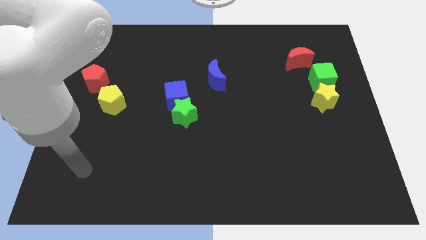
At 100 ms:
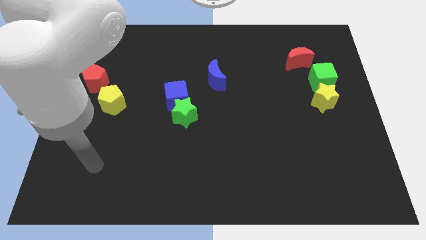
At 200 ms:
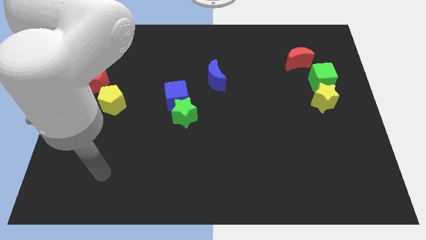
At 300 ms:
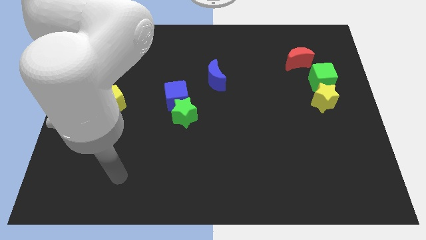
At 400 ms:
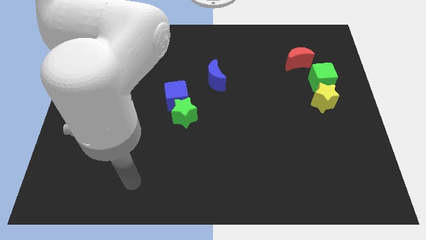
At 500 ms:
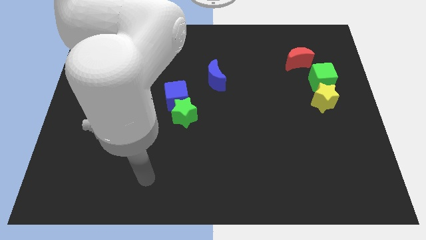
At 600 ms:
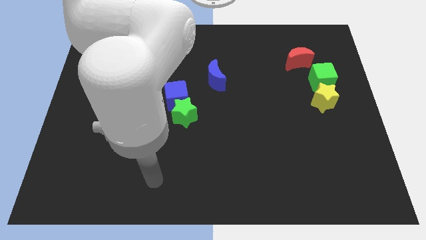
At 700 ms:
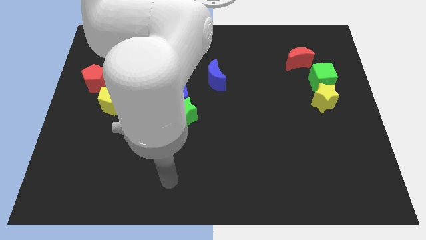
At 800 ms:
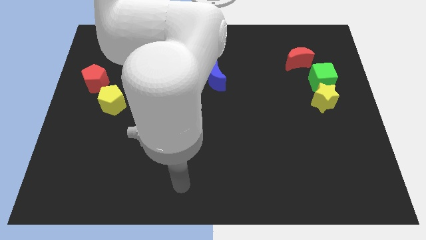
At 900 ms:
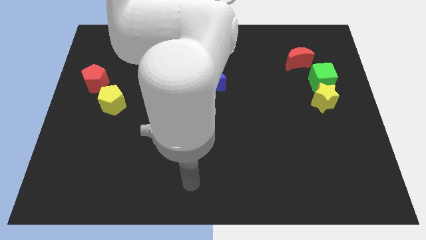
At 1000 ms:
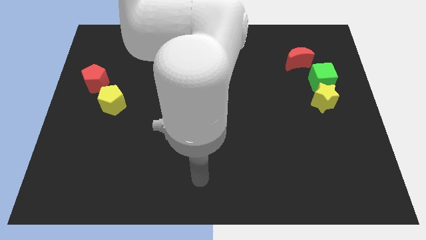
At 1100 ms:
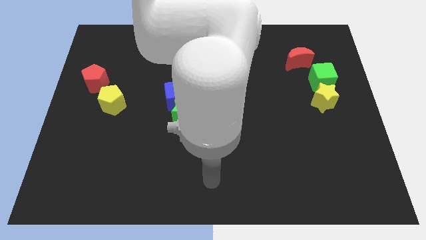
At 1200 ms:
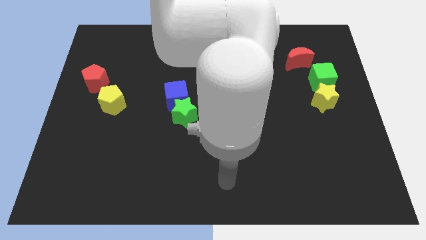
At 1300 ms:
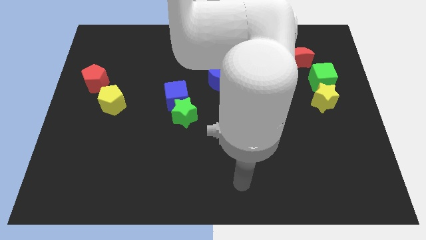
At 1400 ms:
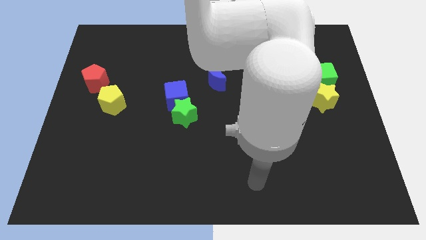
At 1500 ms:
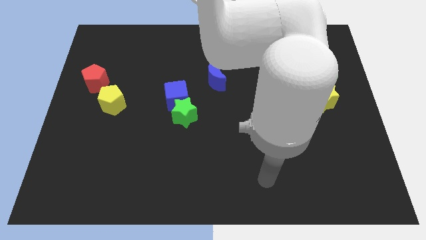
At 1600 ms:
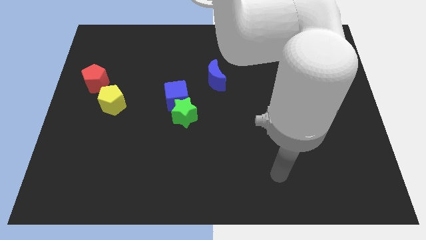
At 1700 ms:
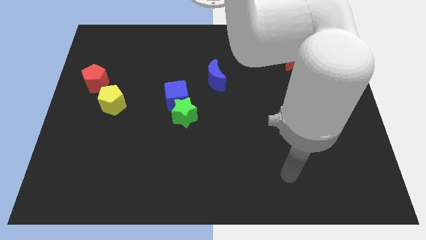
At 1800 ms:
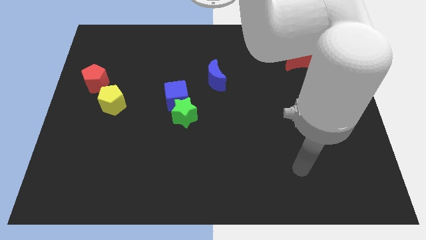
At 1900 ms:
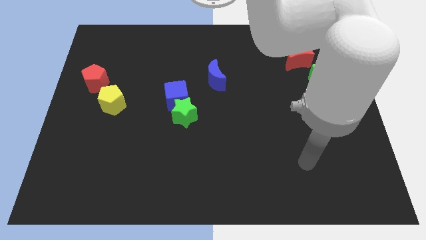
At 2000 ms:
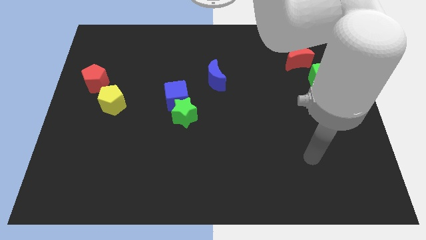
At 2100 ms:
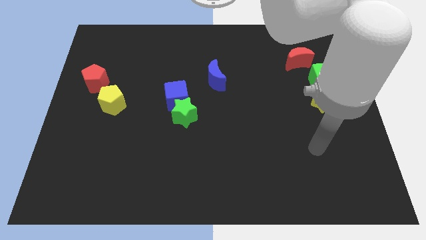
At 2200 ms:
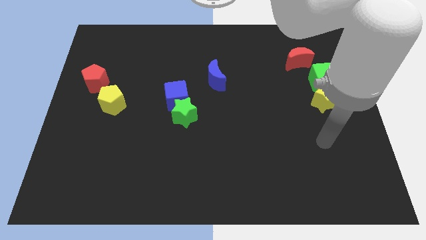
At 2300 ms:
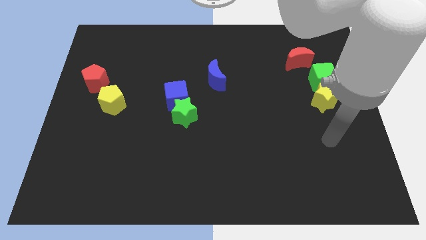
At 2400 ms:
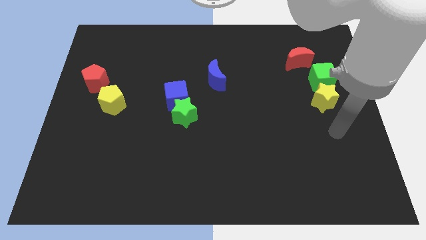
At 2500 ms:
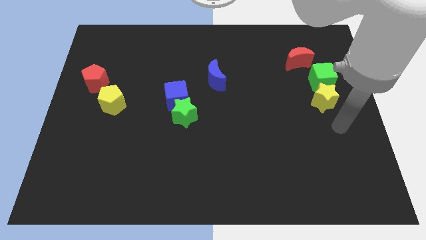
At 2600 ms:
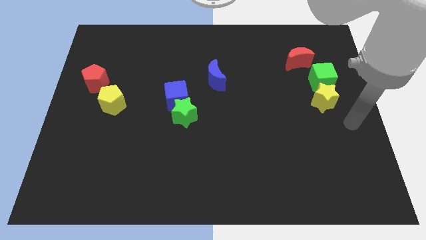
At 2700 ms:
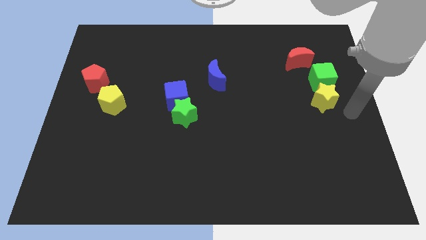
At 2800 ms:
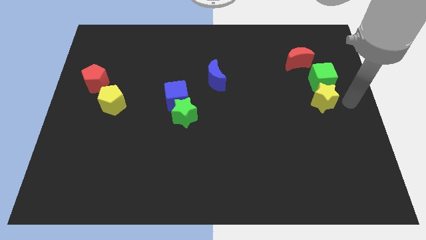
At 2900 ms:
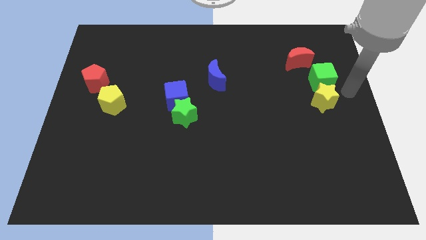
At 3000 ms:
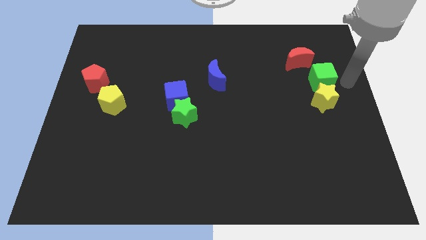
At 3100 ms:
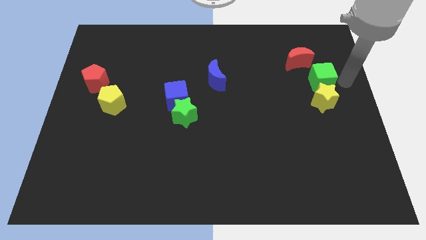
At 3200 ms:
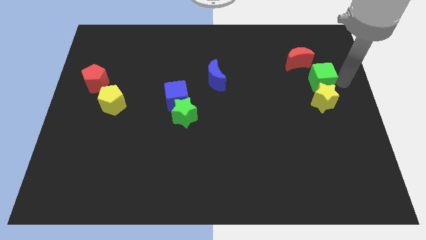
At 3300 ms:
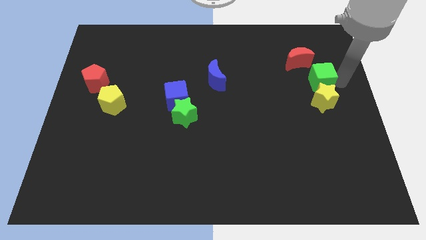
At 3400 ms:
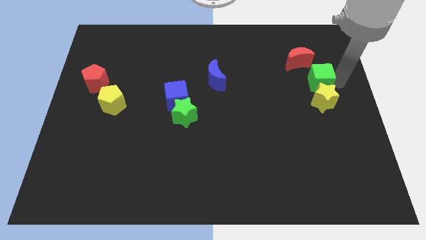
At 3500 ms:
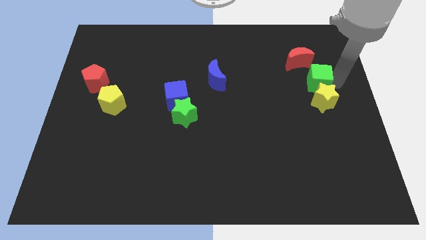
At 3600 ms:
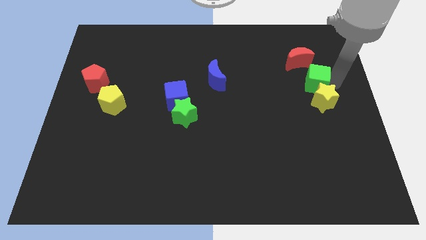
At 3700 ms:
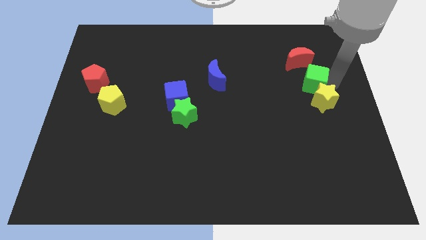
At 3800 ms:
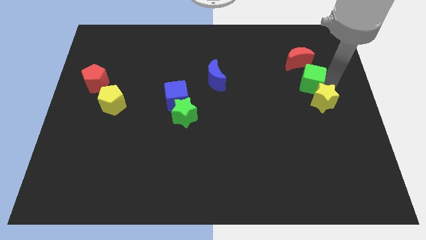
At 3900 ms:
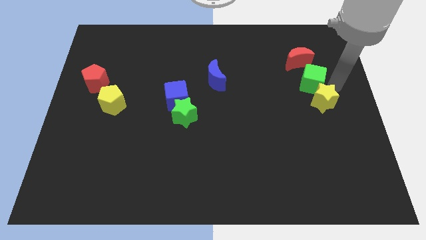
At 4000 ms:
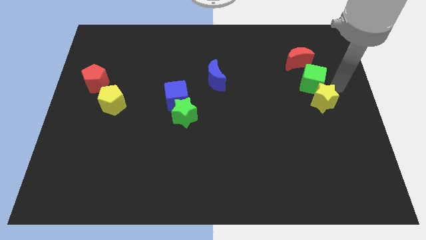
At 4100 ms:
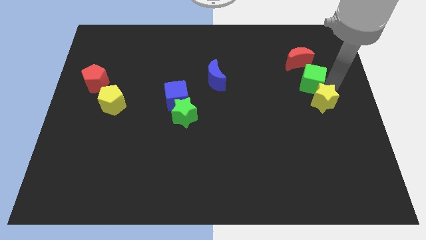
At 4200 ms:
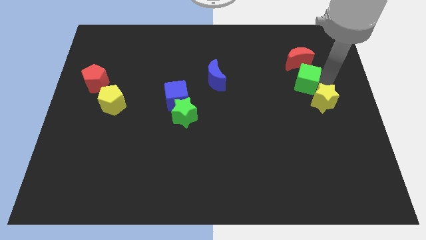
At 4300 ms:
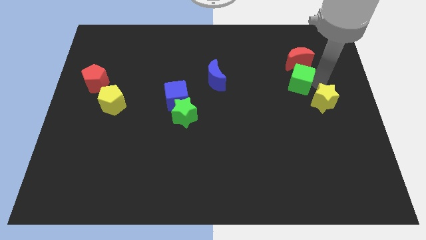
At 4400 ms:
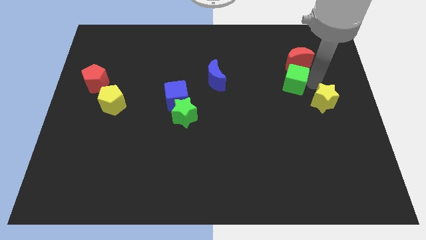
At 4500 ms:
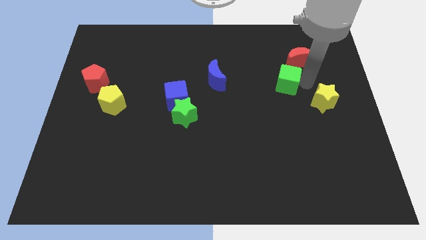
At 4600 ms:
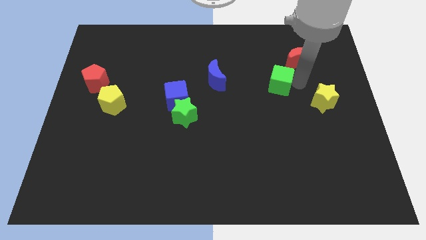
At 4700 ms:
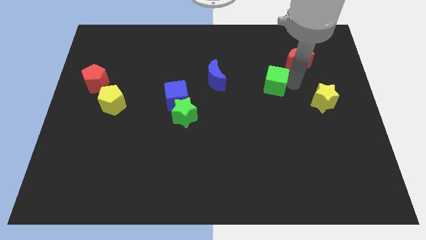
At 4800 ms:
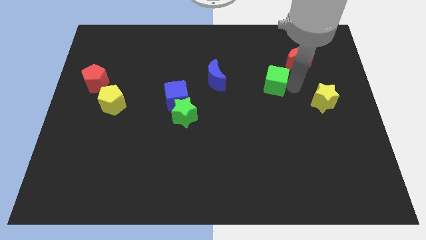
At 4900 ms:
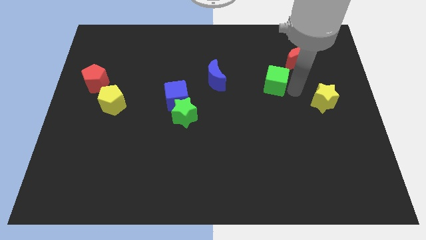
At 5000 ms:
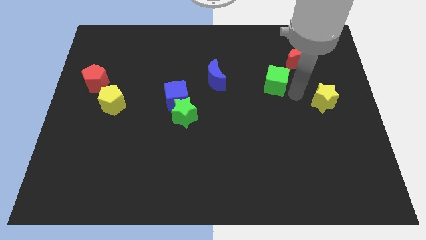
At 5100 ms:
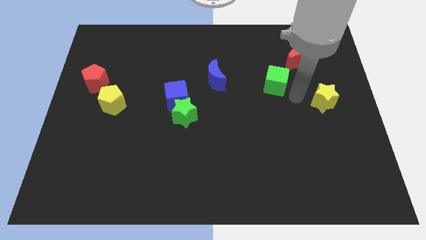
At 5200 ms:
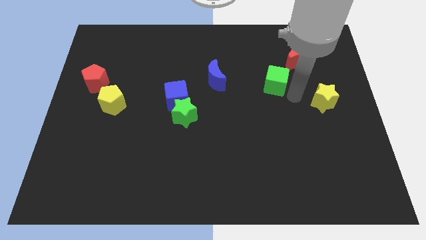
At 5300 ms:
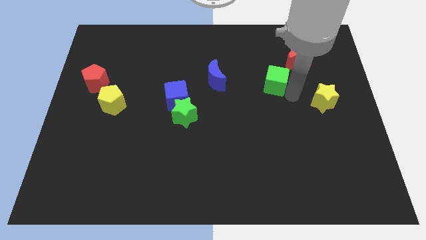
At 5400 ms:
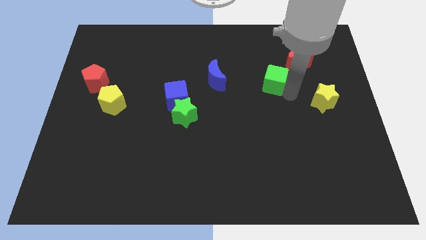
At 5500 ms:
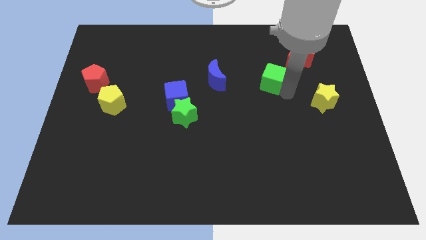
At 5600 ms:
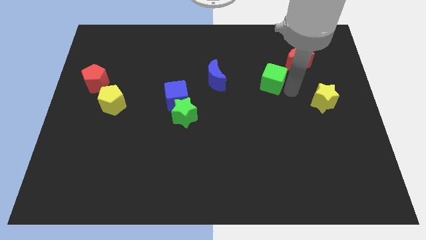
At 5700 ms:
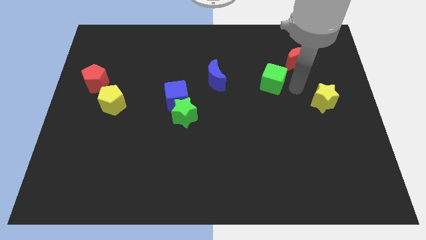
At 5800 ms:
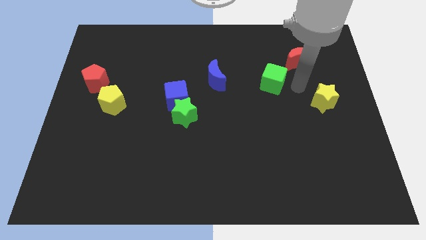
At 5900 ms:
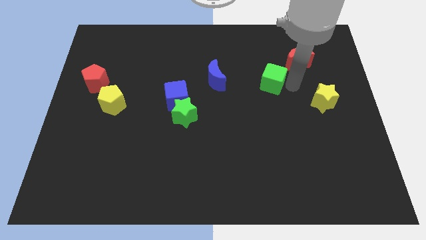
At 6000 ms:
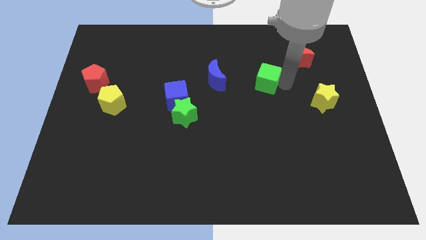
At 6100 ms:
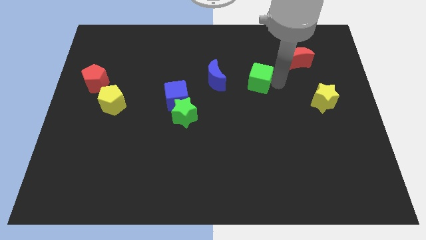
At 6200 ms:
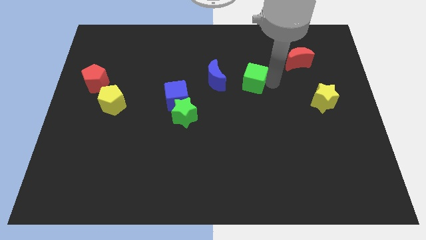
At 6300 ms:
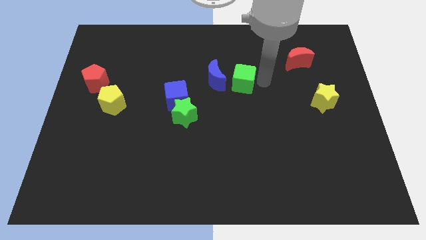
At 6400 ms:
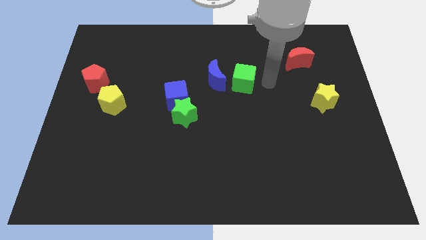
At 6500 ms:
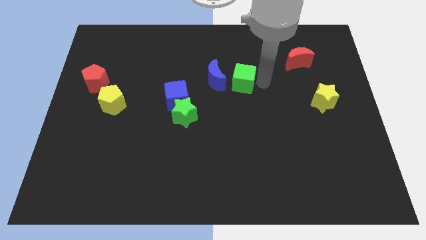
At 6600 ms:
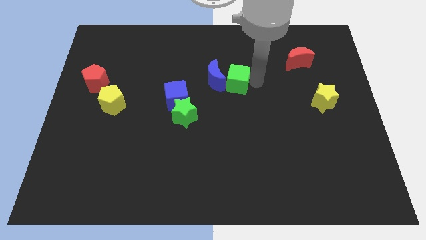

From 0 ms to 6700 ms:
put the green cube towards the blue moon

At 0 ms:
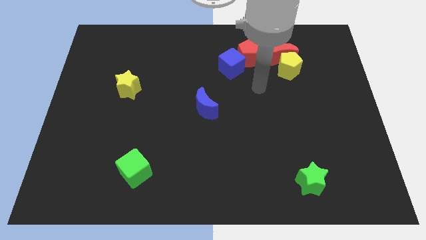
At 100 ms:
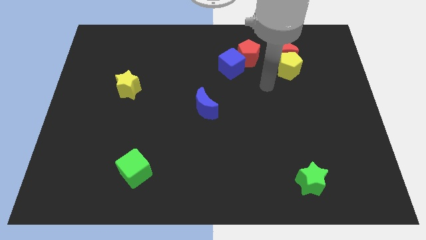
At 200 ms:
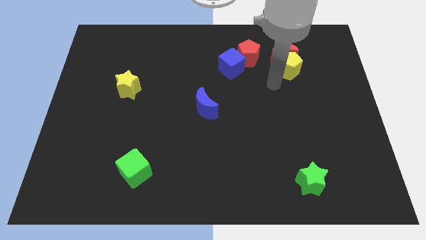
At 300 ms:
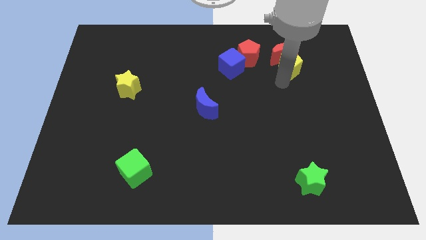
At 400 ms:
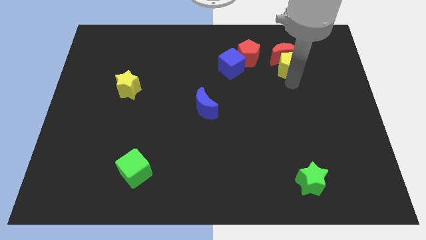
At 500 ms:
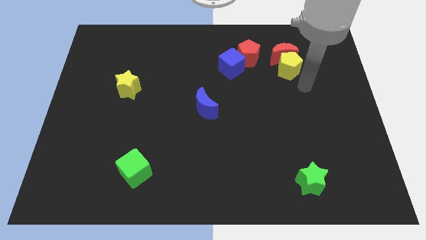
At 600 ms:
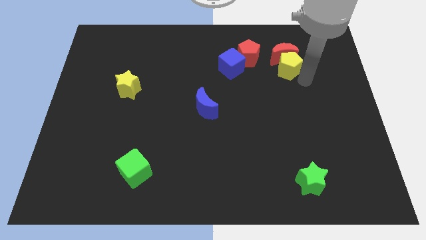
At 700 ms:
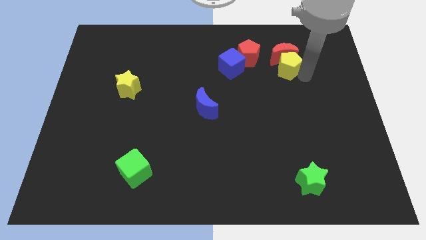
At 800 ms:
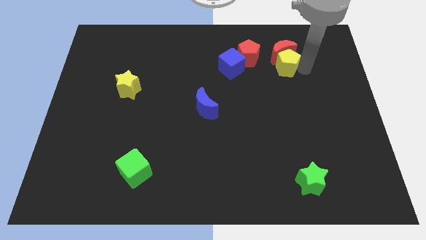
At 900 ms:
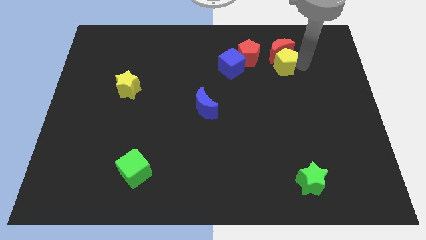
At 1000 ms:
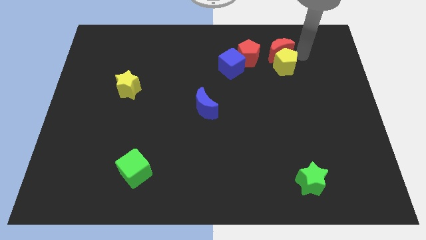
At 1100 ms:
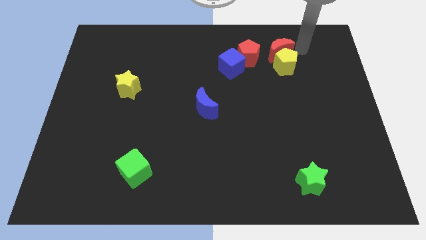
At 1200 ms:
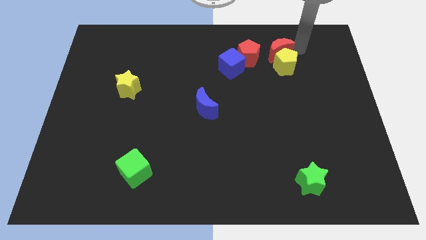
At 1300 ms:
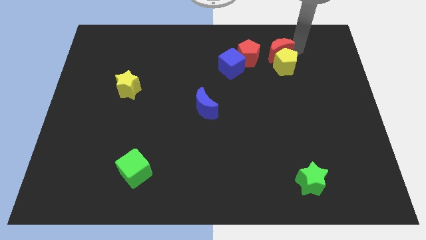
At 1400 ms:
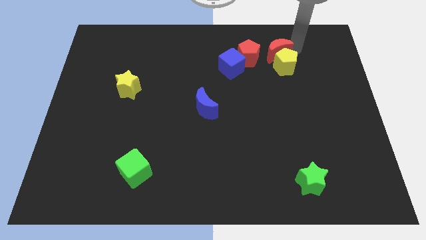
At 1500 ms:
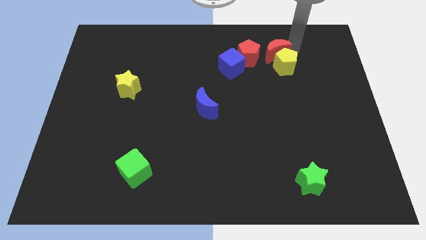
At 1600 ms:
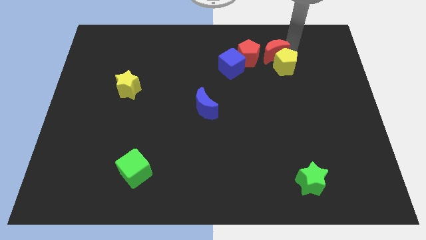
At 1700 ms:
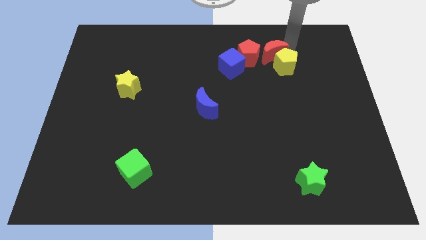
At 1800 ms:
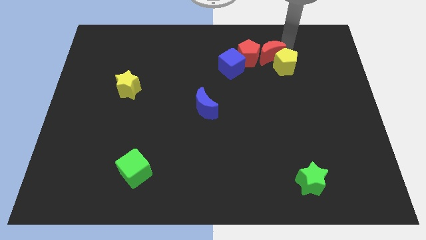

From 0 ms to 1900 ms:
slide the red moon close to the red pentagon
